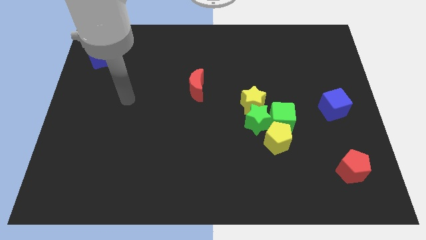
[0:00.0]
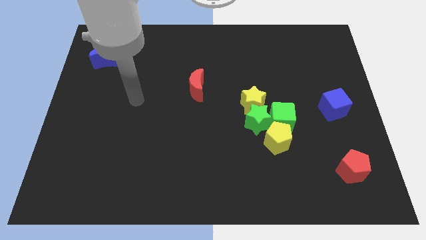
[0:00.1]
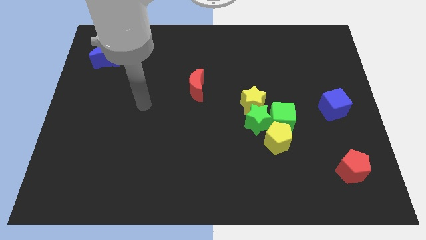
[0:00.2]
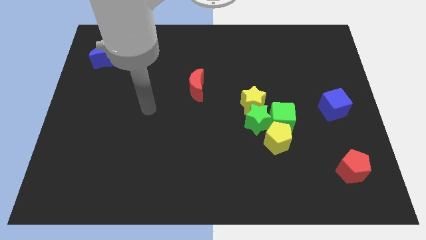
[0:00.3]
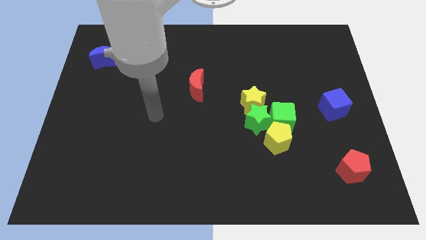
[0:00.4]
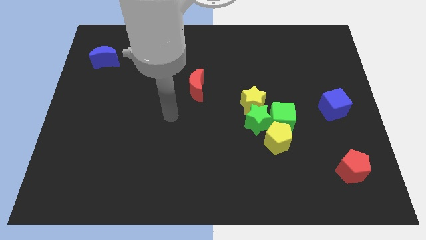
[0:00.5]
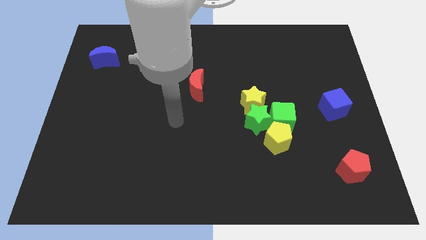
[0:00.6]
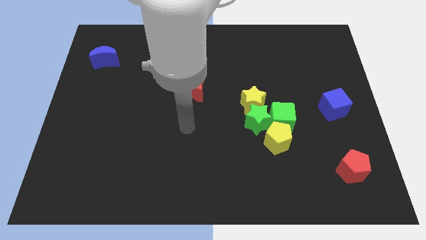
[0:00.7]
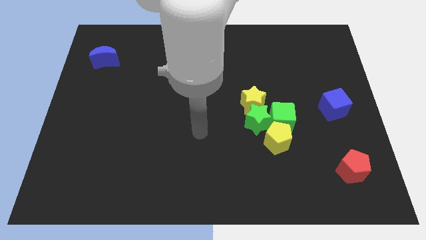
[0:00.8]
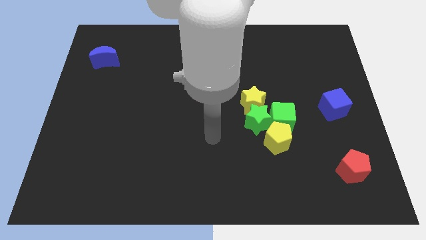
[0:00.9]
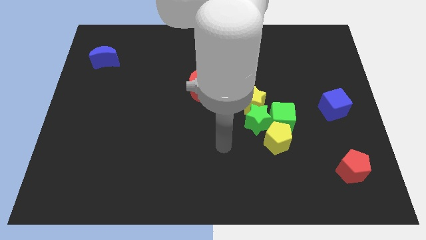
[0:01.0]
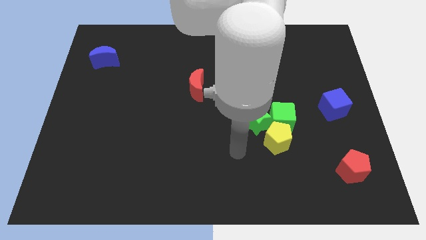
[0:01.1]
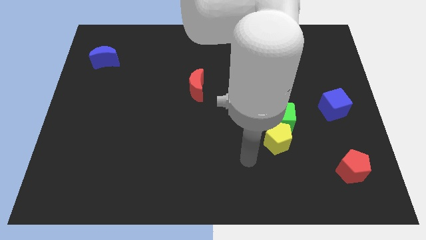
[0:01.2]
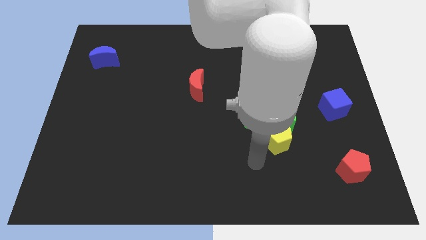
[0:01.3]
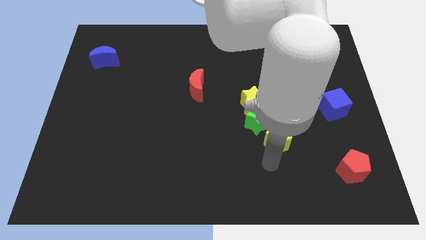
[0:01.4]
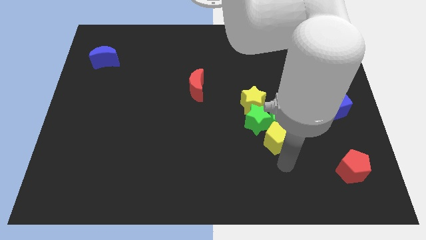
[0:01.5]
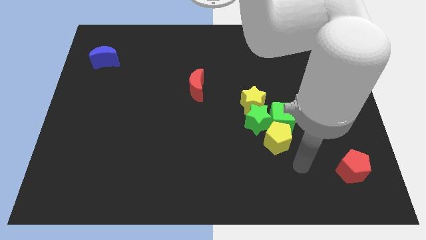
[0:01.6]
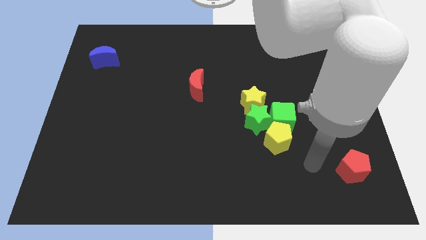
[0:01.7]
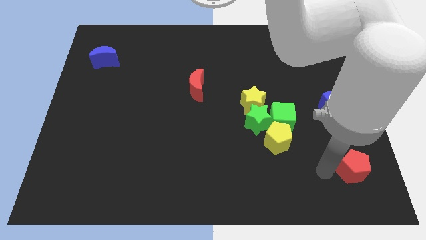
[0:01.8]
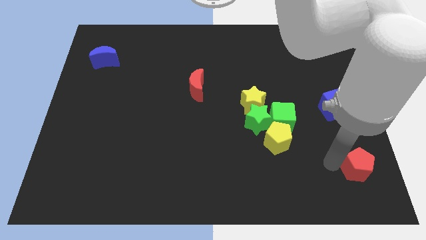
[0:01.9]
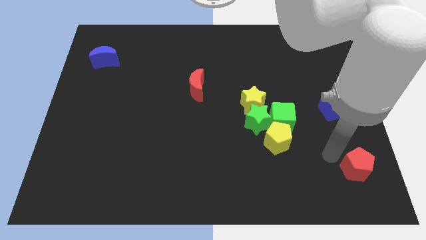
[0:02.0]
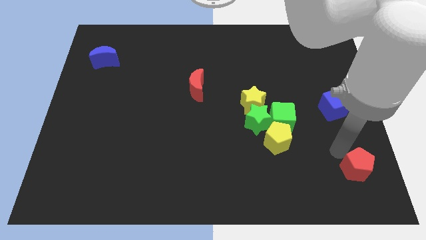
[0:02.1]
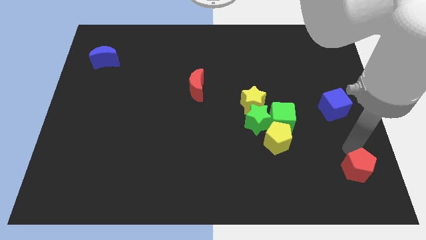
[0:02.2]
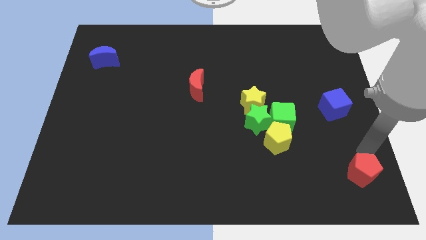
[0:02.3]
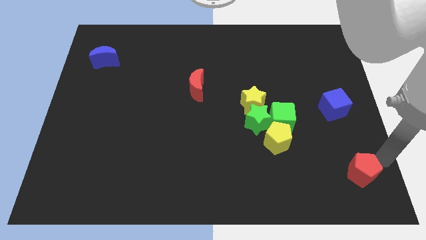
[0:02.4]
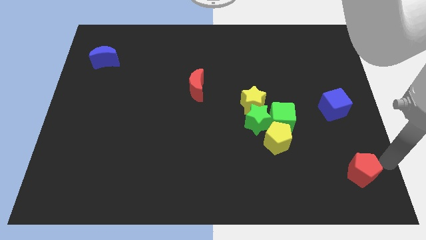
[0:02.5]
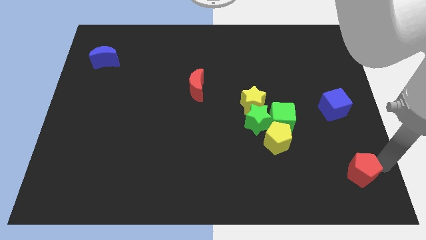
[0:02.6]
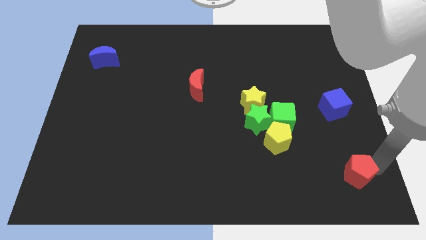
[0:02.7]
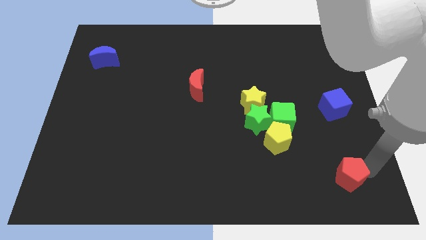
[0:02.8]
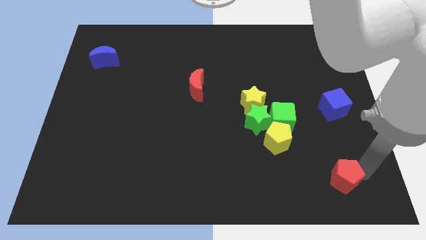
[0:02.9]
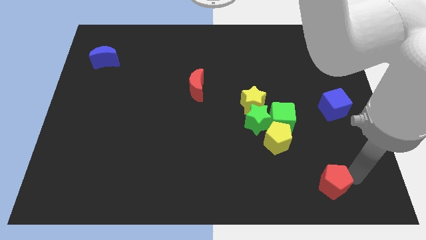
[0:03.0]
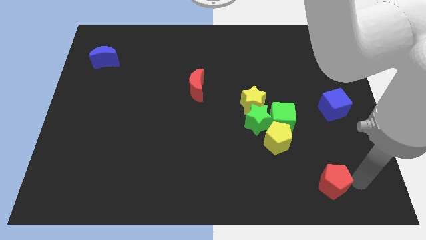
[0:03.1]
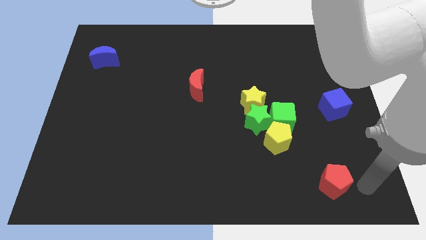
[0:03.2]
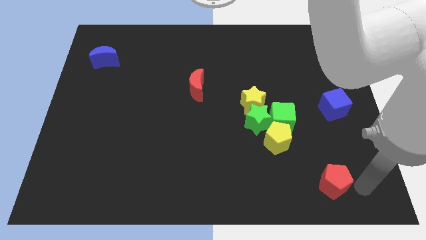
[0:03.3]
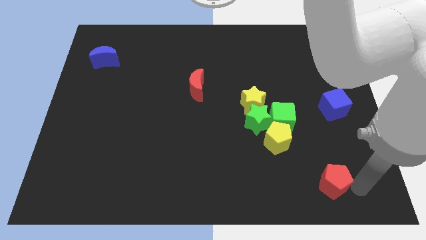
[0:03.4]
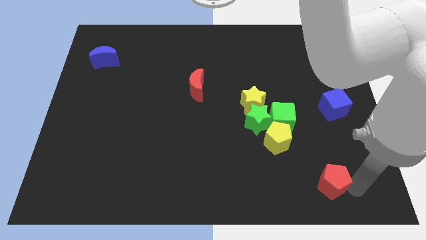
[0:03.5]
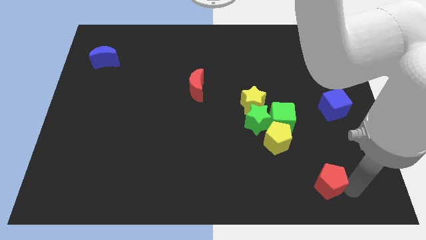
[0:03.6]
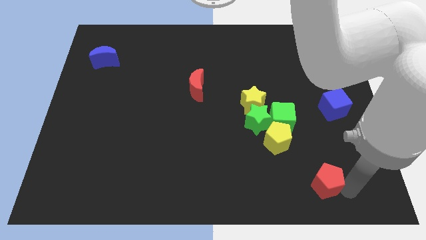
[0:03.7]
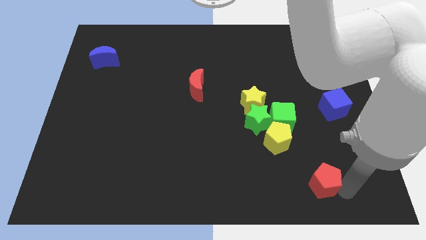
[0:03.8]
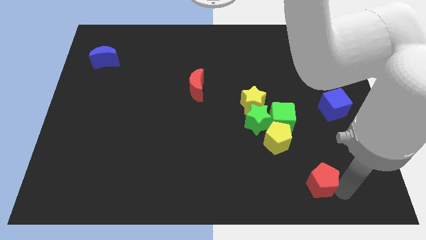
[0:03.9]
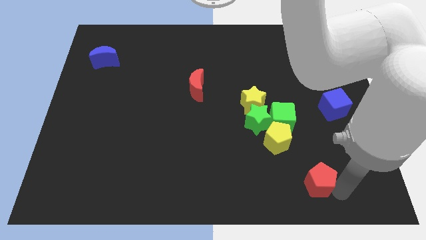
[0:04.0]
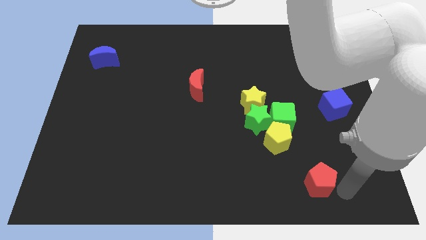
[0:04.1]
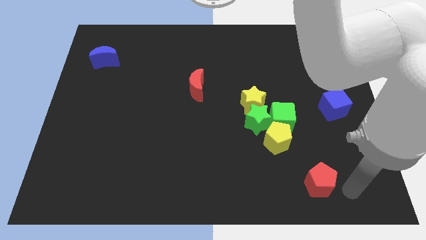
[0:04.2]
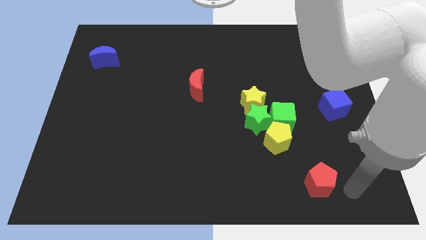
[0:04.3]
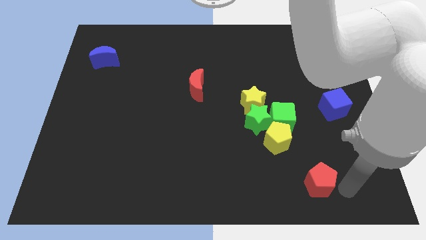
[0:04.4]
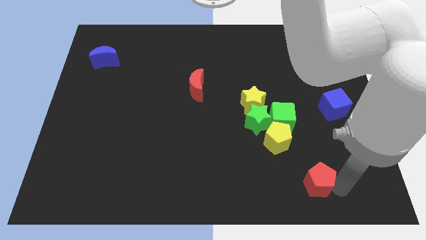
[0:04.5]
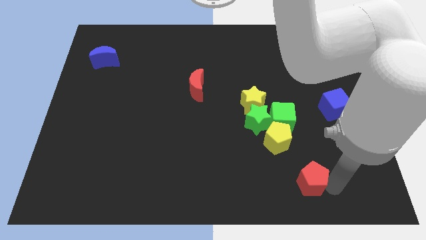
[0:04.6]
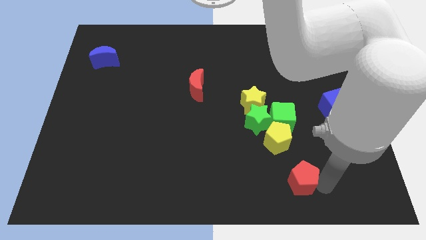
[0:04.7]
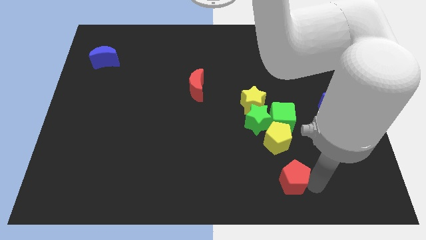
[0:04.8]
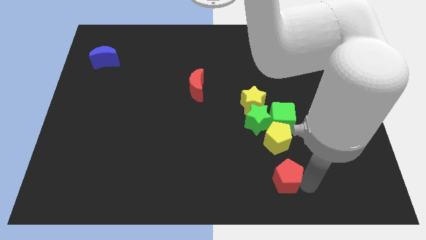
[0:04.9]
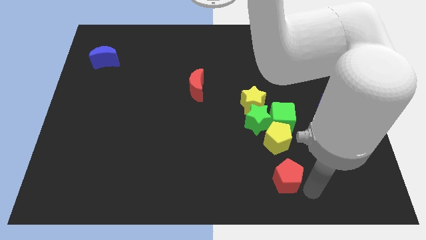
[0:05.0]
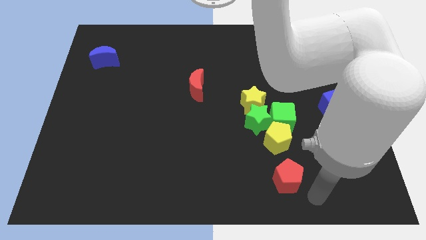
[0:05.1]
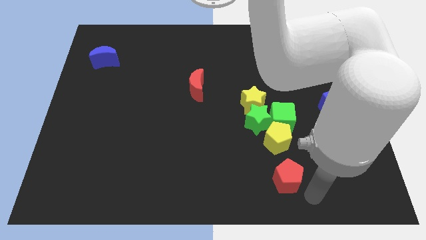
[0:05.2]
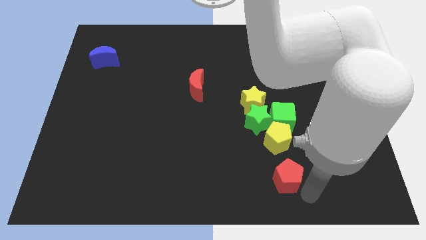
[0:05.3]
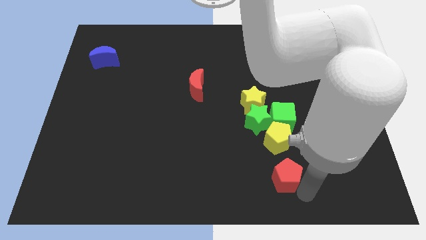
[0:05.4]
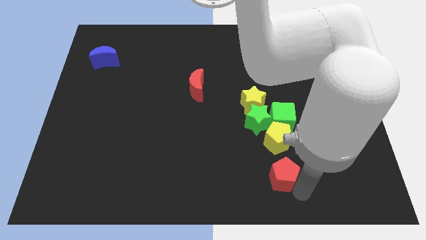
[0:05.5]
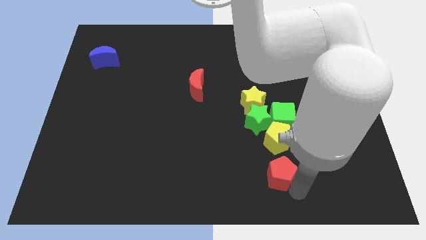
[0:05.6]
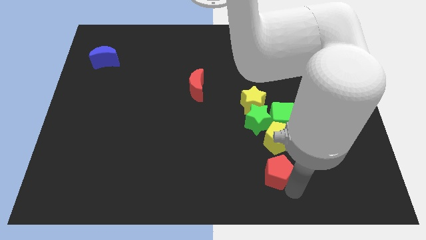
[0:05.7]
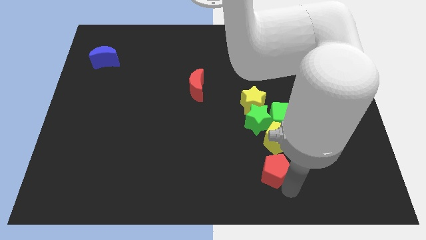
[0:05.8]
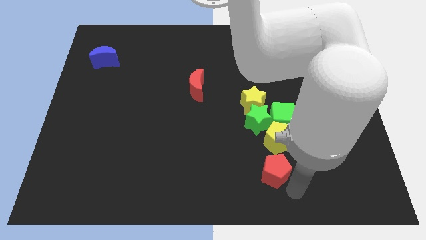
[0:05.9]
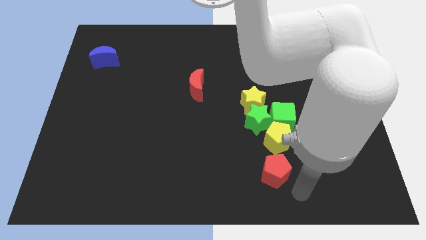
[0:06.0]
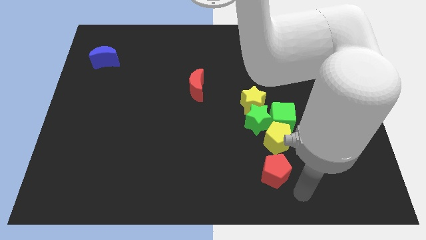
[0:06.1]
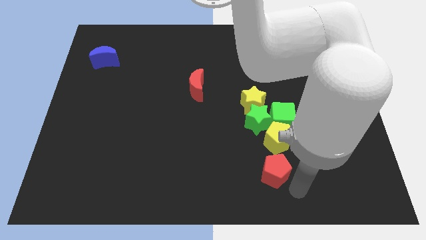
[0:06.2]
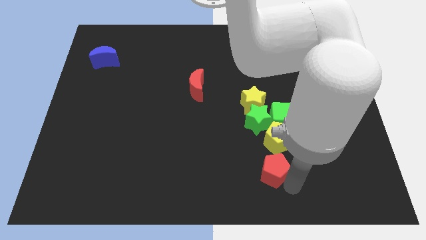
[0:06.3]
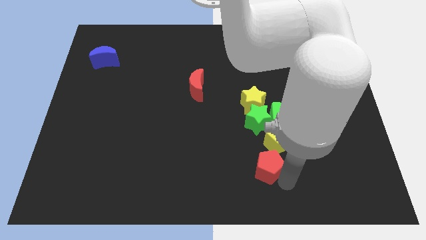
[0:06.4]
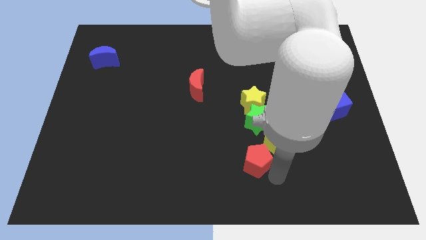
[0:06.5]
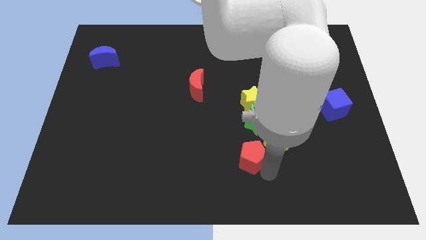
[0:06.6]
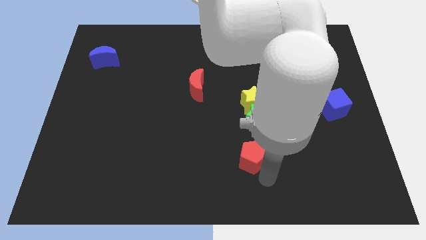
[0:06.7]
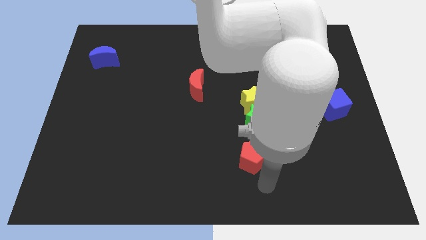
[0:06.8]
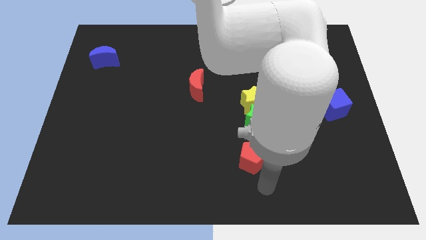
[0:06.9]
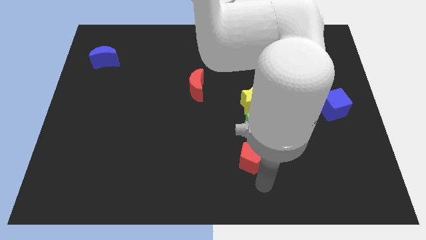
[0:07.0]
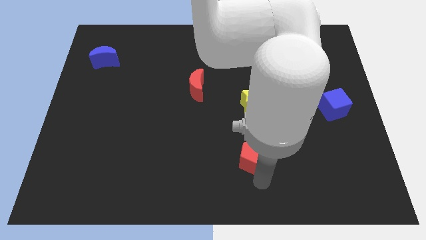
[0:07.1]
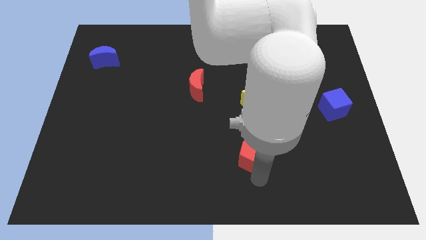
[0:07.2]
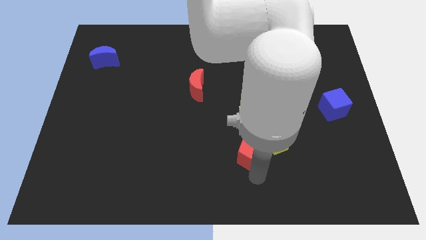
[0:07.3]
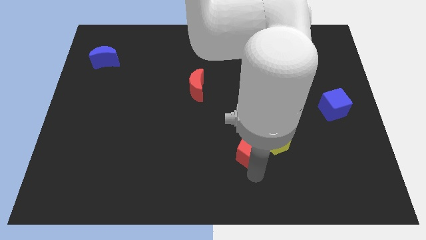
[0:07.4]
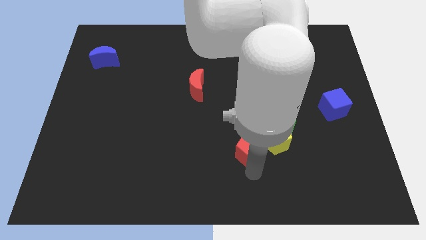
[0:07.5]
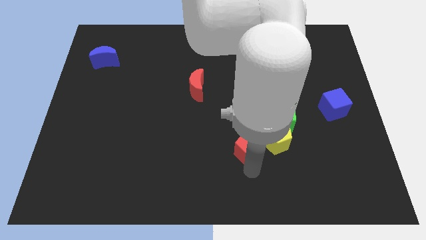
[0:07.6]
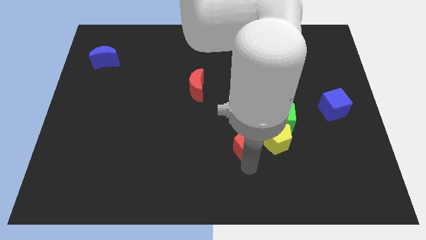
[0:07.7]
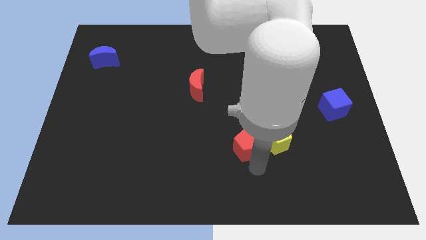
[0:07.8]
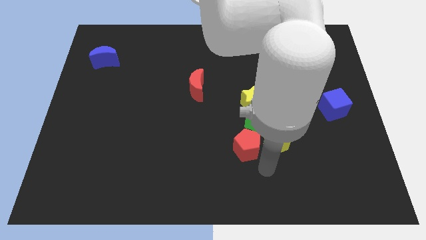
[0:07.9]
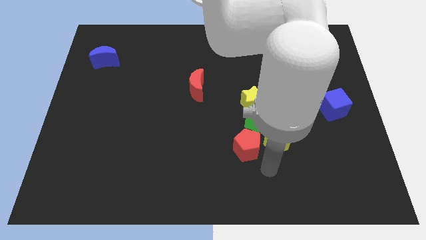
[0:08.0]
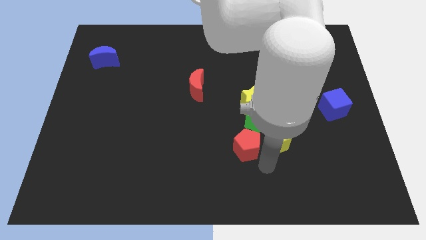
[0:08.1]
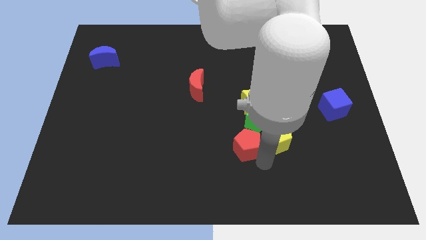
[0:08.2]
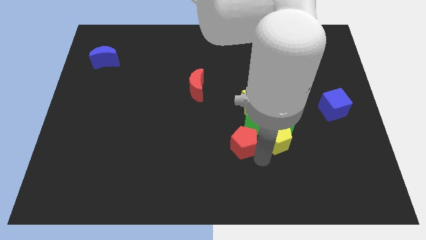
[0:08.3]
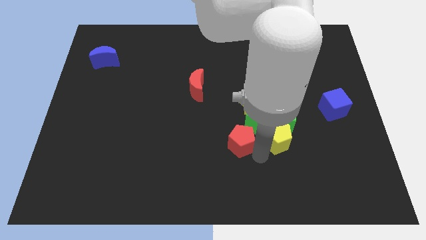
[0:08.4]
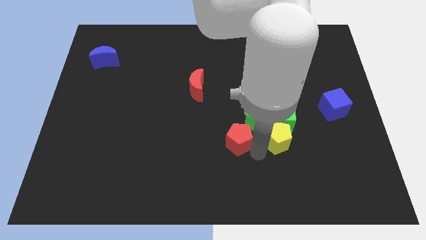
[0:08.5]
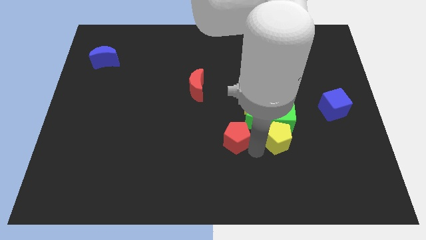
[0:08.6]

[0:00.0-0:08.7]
put the red pentagon to the center of the board
